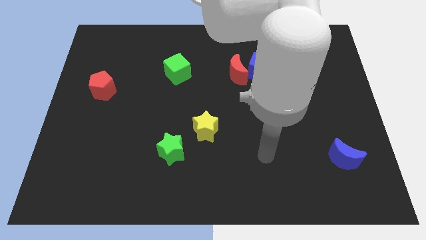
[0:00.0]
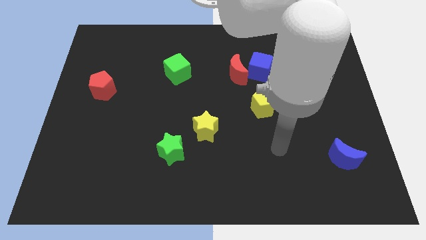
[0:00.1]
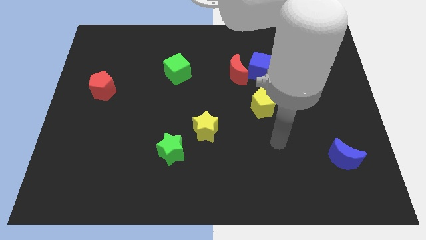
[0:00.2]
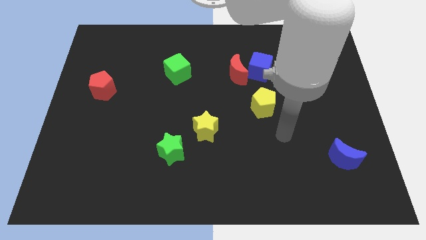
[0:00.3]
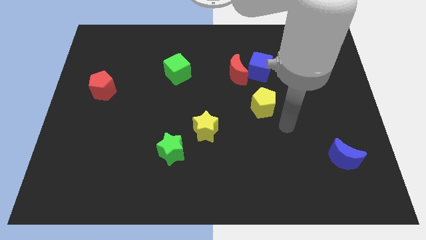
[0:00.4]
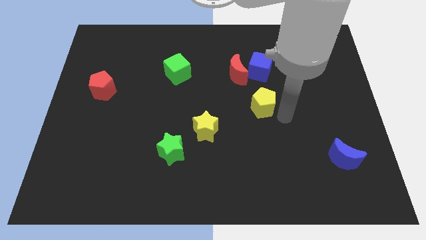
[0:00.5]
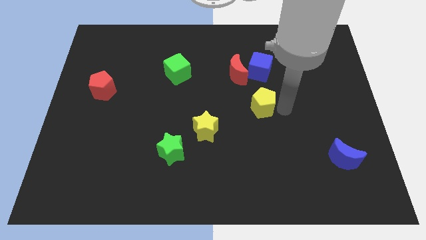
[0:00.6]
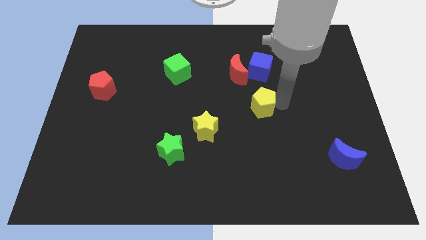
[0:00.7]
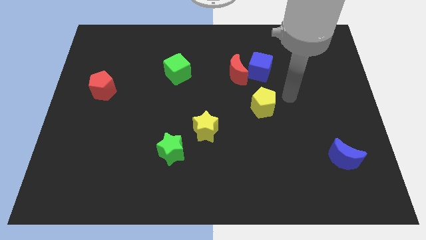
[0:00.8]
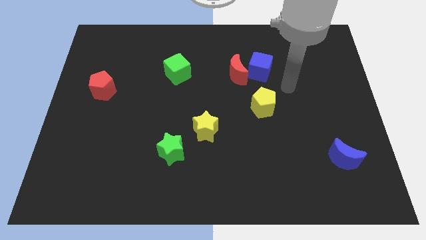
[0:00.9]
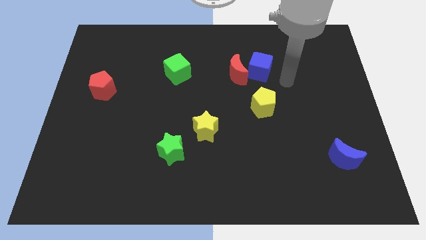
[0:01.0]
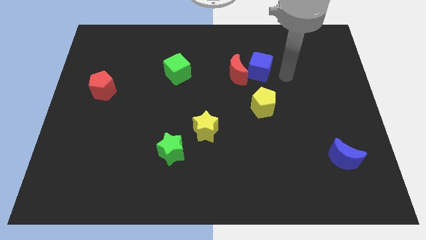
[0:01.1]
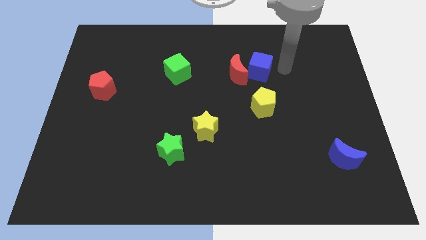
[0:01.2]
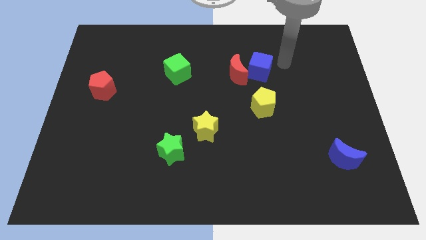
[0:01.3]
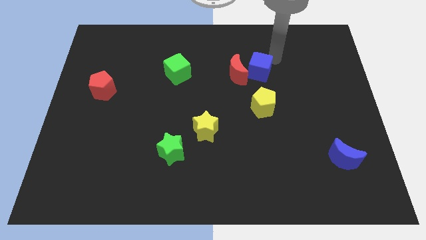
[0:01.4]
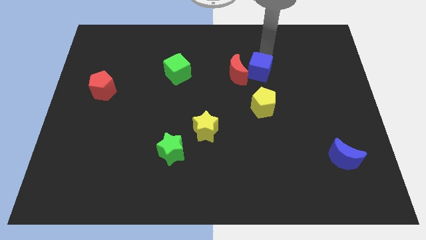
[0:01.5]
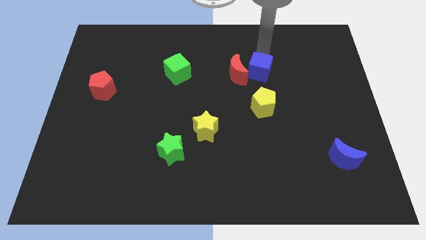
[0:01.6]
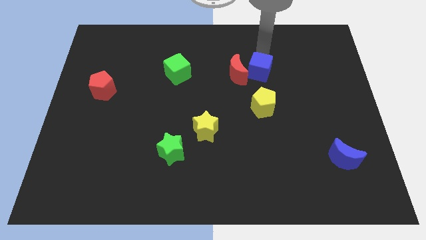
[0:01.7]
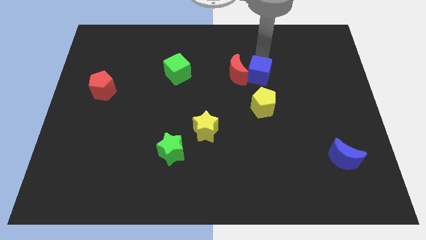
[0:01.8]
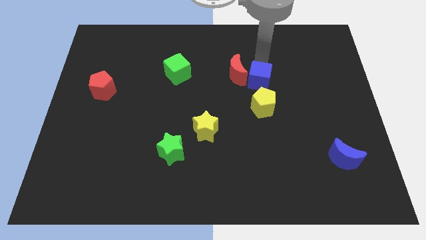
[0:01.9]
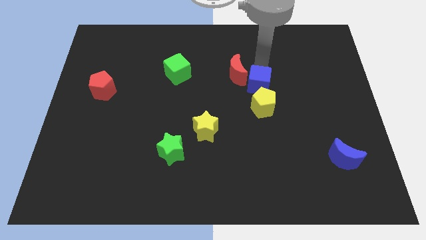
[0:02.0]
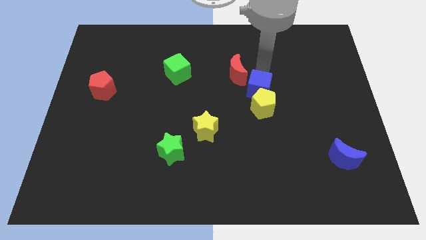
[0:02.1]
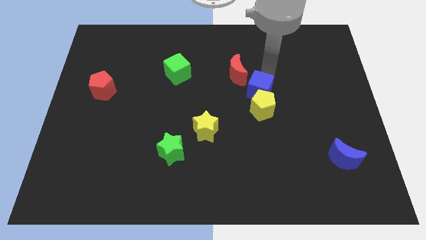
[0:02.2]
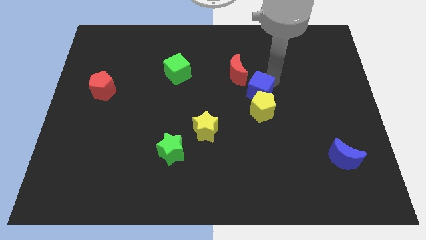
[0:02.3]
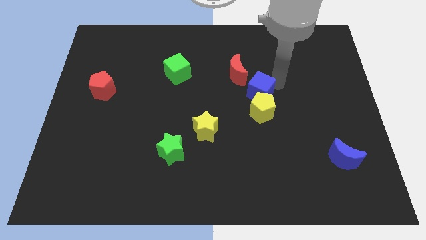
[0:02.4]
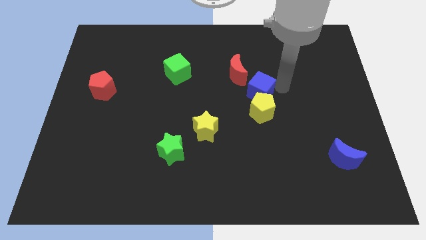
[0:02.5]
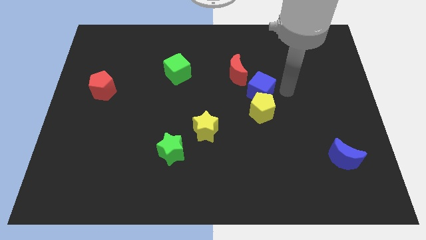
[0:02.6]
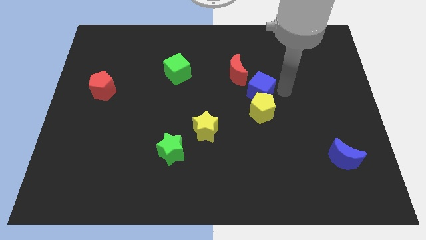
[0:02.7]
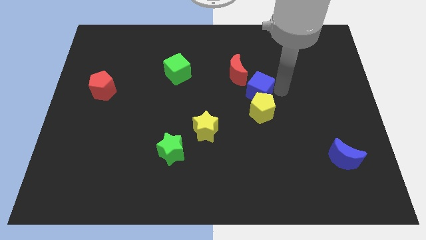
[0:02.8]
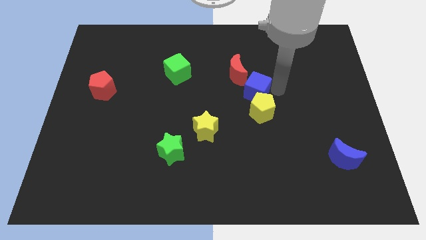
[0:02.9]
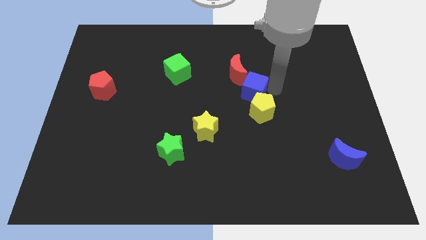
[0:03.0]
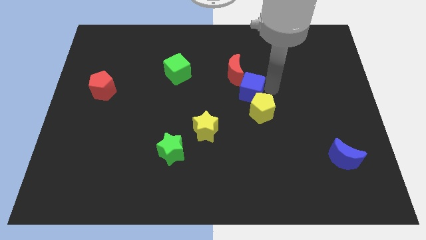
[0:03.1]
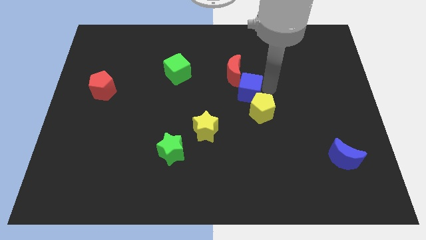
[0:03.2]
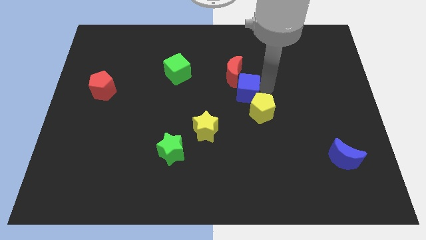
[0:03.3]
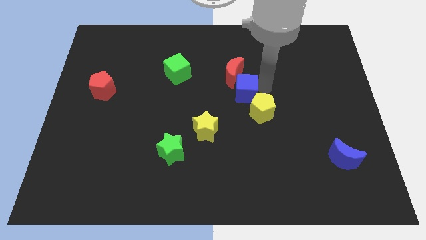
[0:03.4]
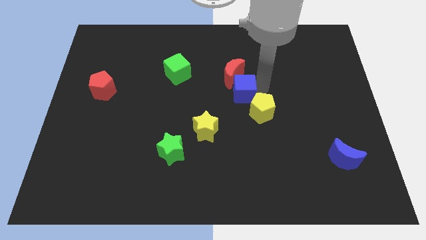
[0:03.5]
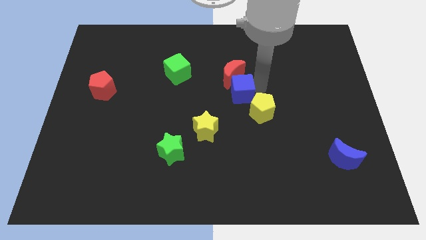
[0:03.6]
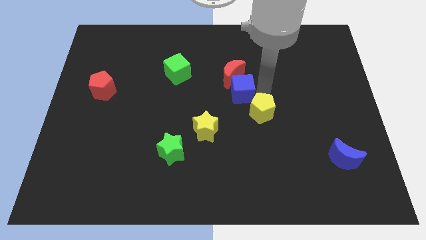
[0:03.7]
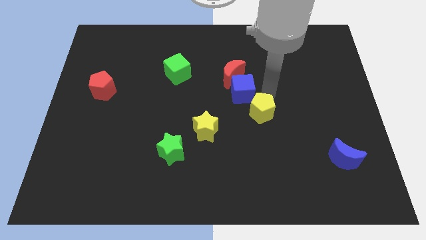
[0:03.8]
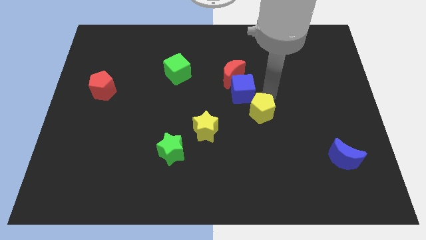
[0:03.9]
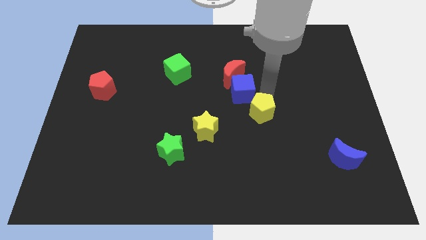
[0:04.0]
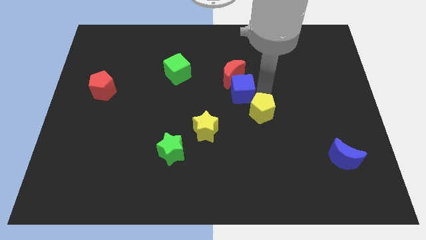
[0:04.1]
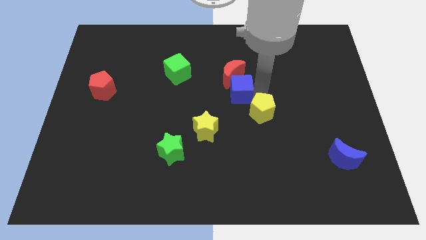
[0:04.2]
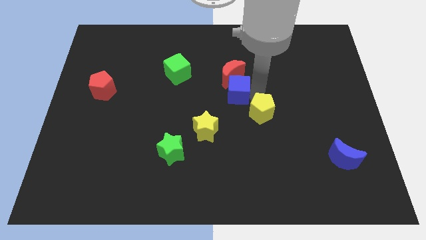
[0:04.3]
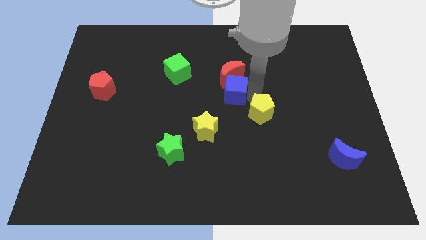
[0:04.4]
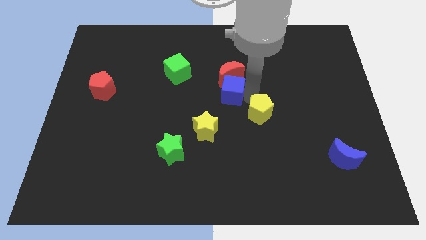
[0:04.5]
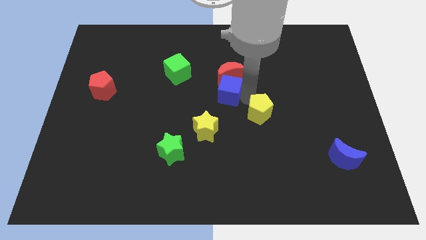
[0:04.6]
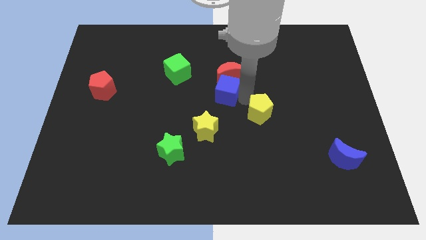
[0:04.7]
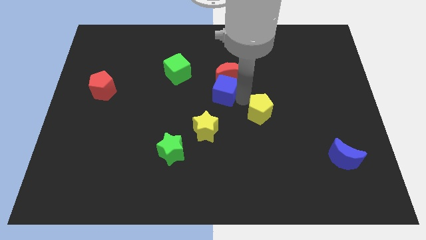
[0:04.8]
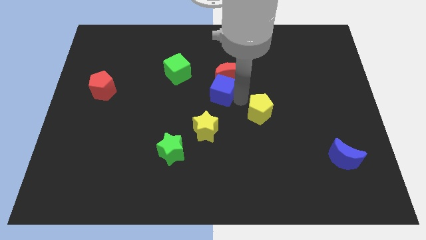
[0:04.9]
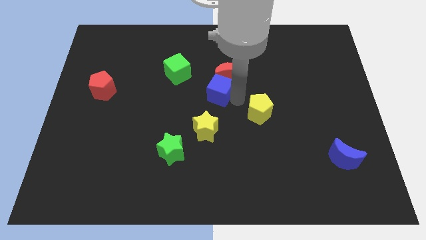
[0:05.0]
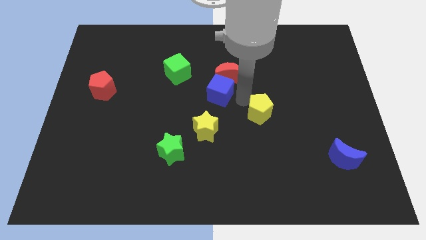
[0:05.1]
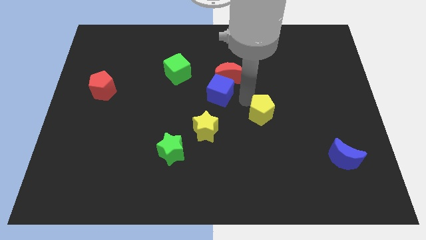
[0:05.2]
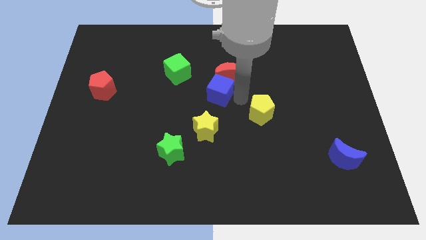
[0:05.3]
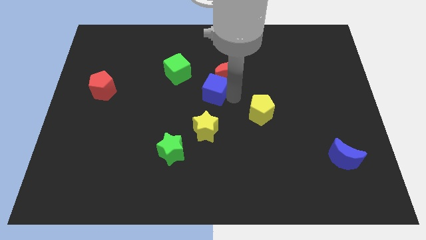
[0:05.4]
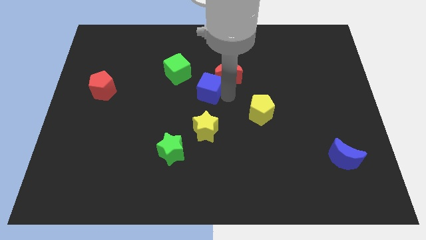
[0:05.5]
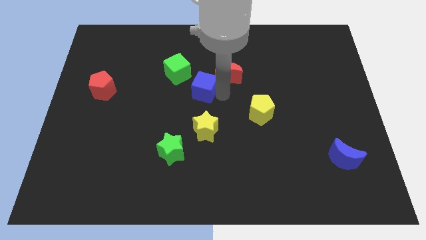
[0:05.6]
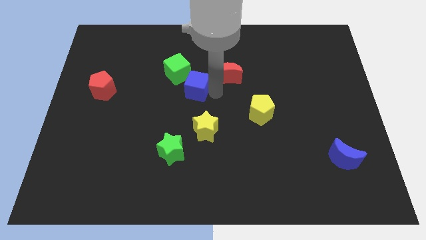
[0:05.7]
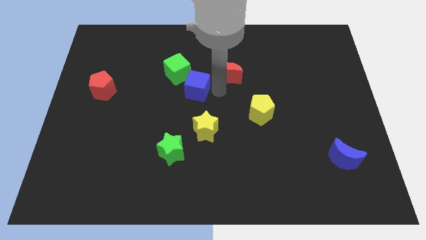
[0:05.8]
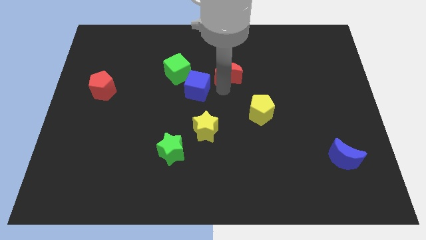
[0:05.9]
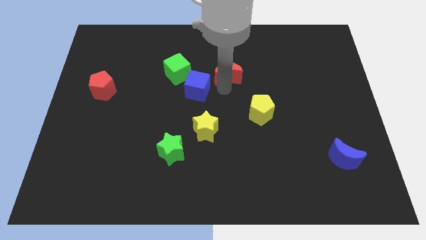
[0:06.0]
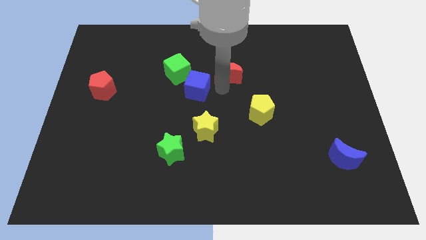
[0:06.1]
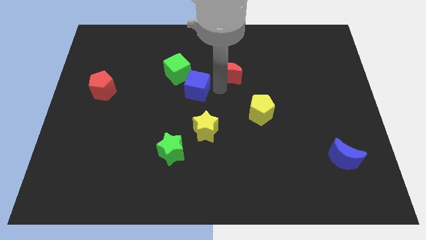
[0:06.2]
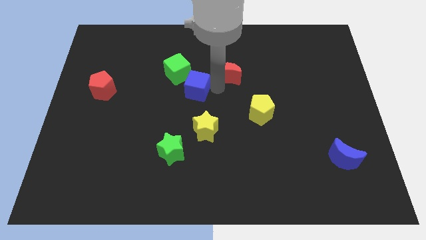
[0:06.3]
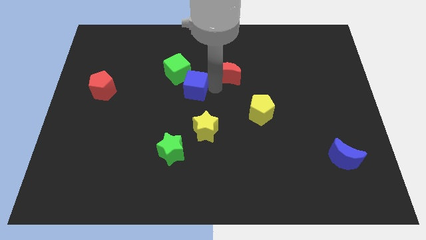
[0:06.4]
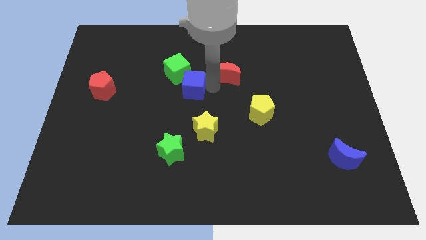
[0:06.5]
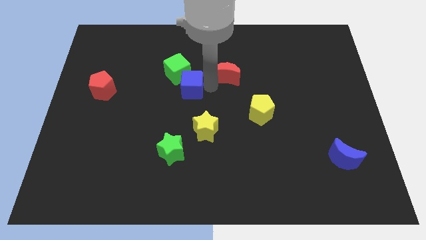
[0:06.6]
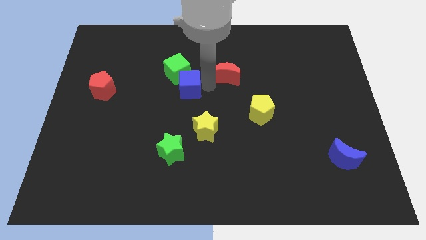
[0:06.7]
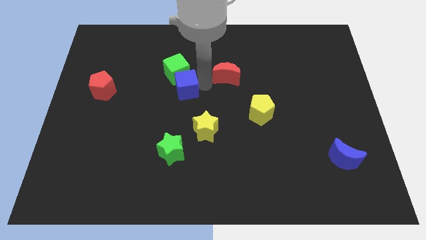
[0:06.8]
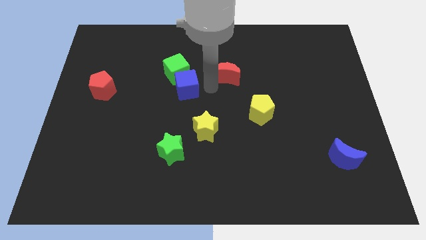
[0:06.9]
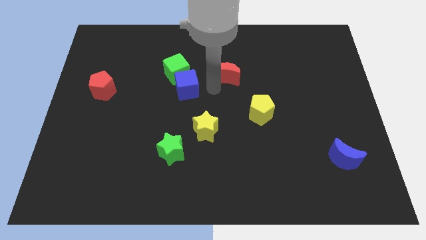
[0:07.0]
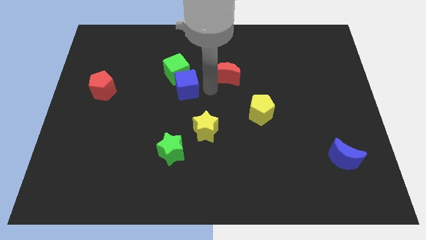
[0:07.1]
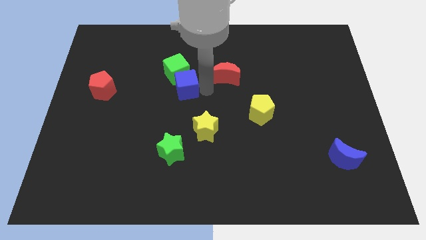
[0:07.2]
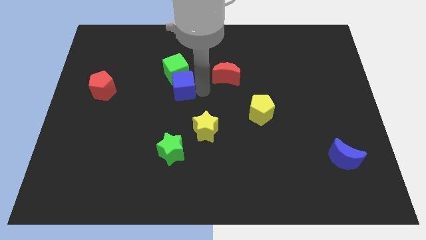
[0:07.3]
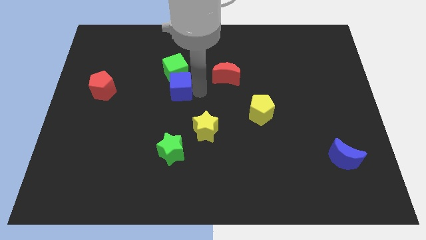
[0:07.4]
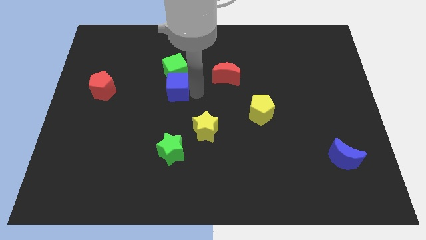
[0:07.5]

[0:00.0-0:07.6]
push the blue cube to the bottom left of the green cube
